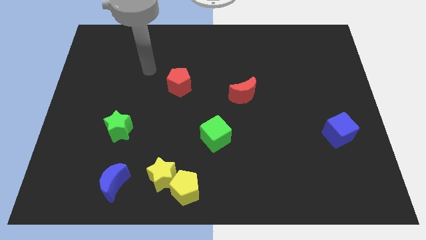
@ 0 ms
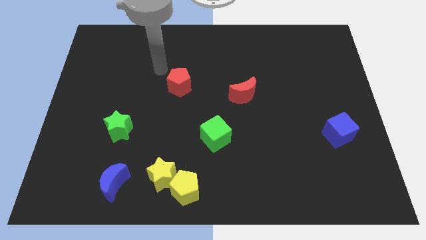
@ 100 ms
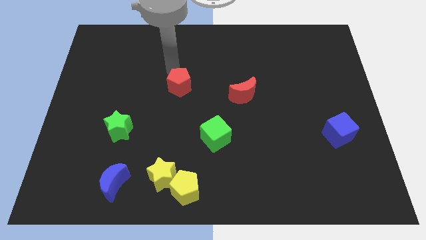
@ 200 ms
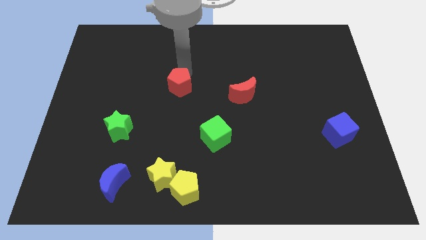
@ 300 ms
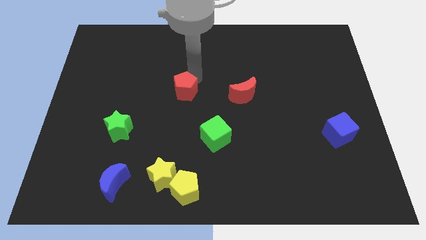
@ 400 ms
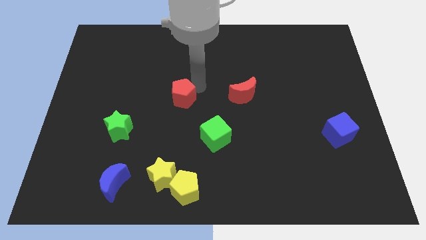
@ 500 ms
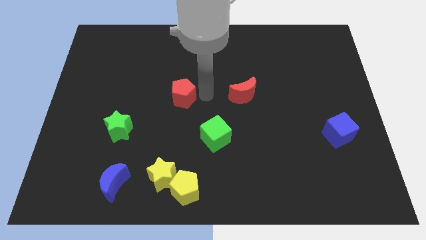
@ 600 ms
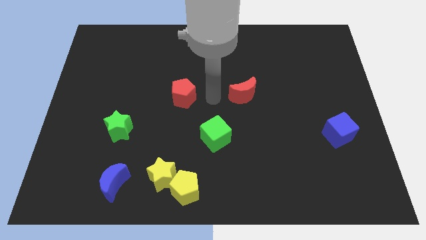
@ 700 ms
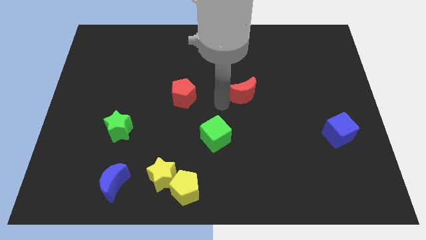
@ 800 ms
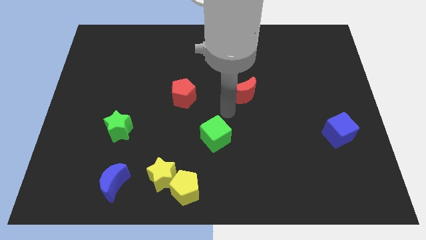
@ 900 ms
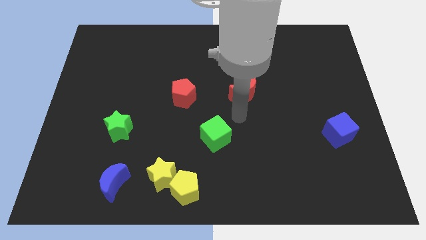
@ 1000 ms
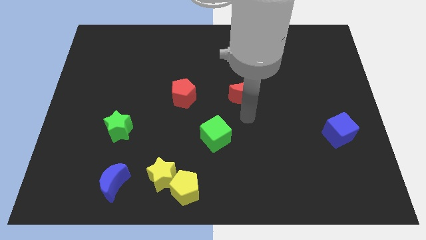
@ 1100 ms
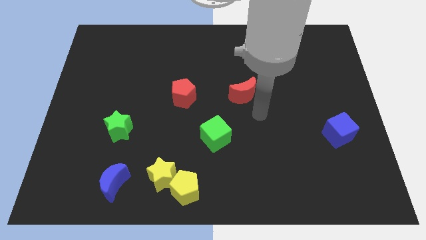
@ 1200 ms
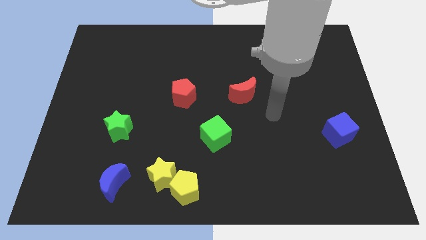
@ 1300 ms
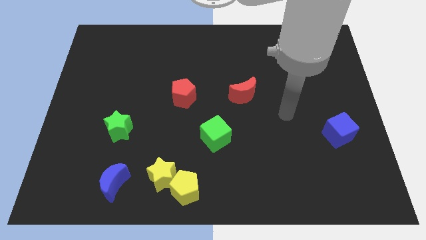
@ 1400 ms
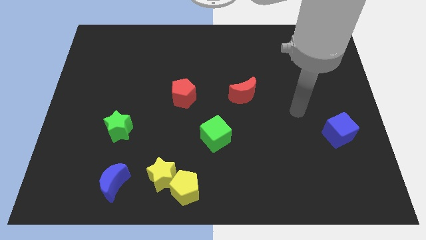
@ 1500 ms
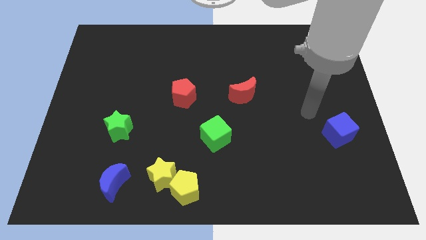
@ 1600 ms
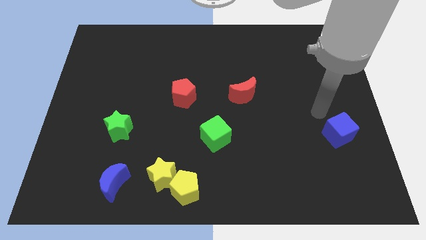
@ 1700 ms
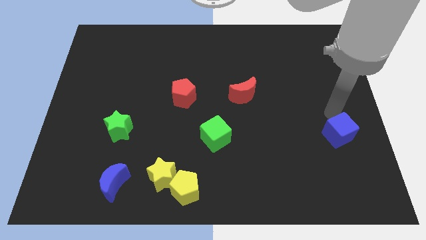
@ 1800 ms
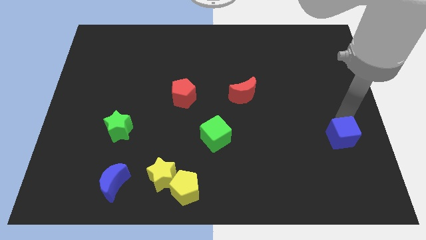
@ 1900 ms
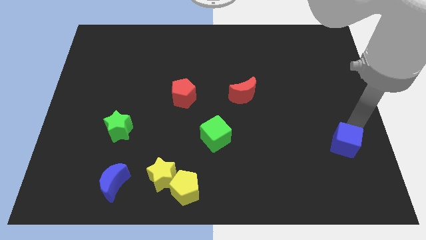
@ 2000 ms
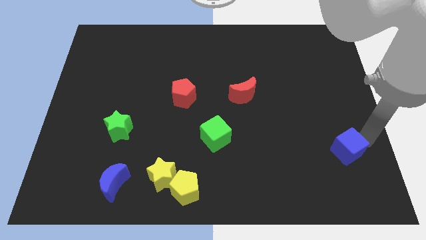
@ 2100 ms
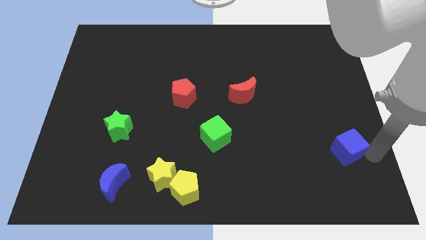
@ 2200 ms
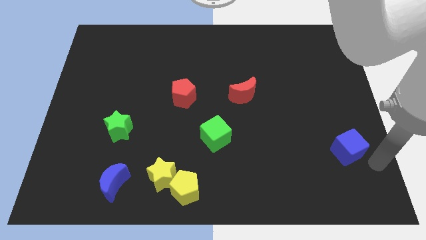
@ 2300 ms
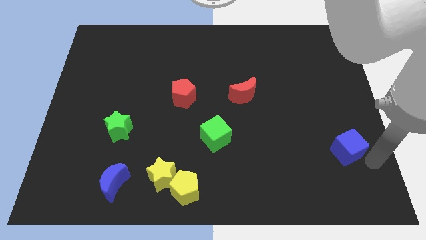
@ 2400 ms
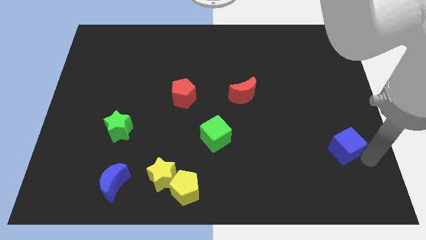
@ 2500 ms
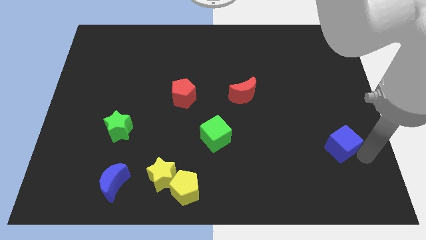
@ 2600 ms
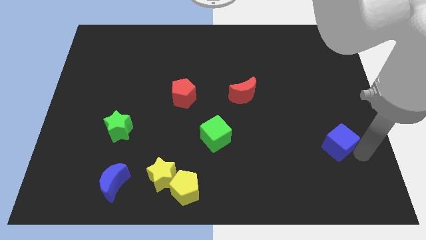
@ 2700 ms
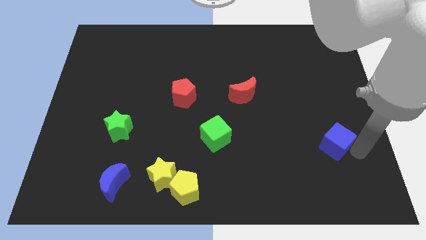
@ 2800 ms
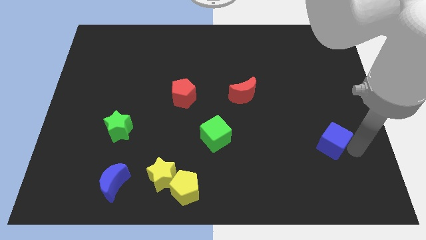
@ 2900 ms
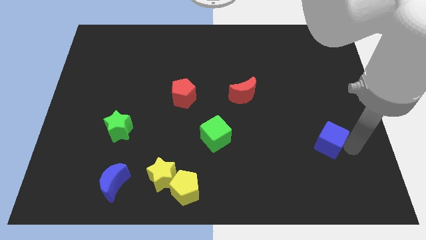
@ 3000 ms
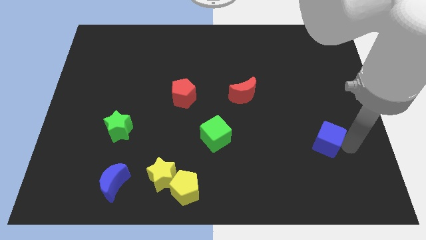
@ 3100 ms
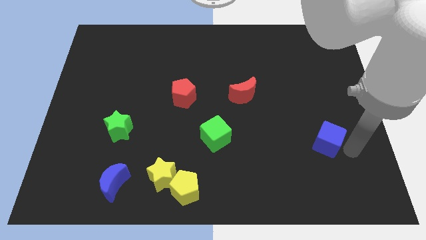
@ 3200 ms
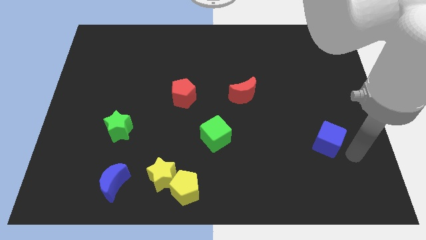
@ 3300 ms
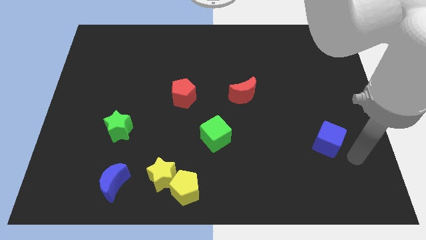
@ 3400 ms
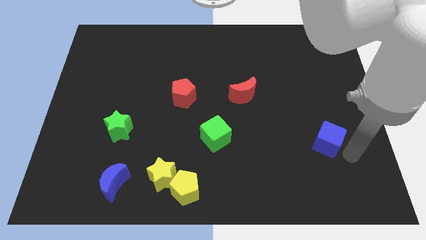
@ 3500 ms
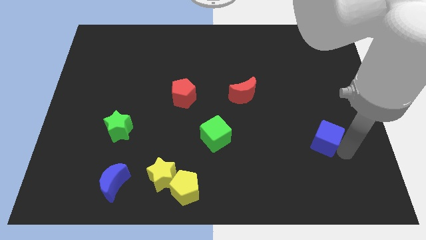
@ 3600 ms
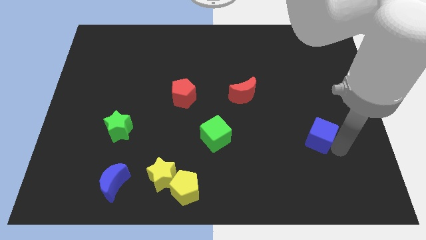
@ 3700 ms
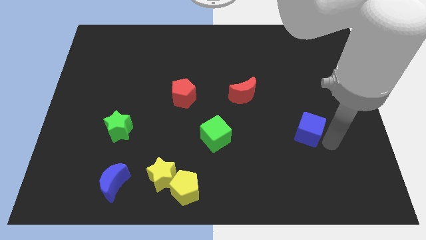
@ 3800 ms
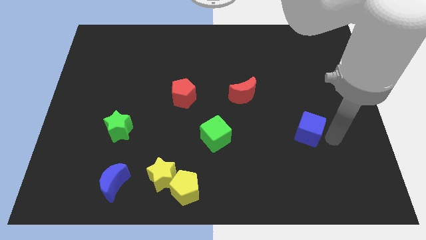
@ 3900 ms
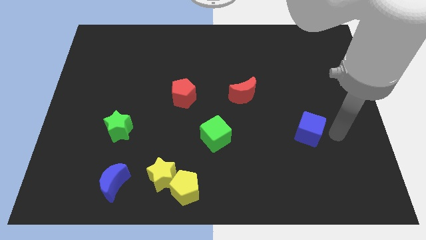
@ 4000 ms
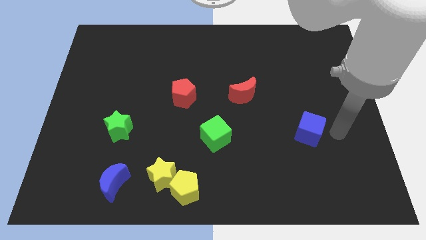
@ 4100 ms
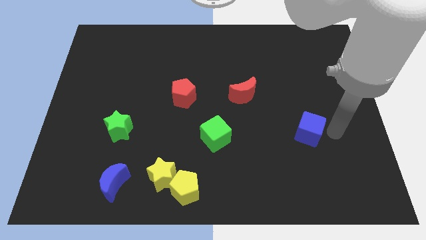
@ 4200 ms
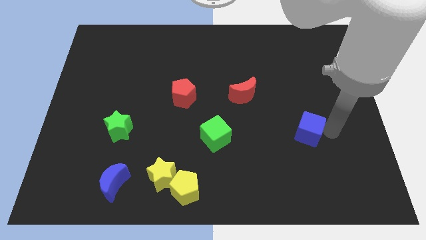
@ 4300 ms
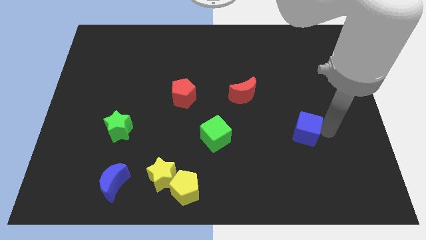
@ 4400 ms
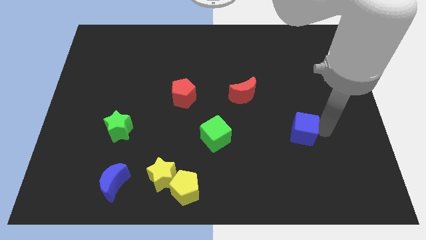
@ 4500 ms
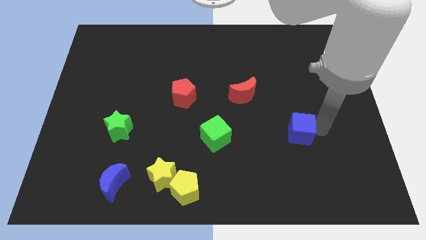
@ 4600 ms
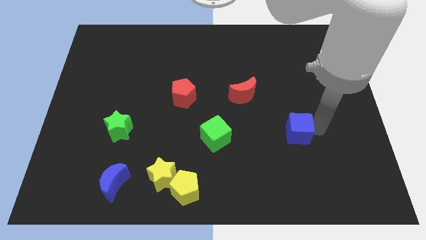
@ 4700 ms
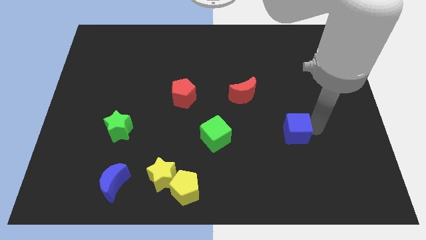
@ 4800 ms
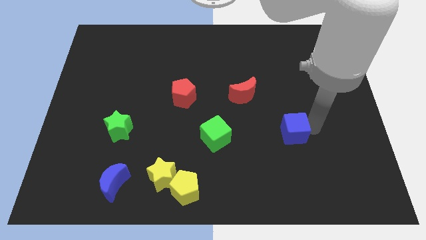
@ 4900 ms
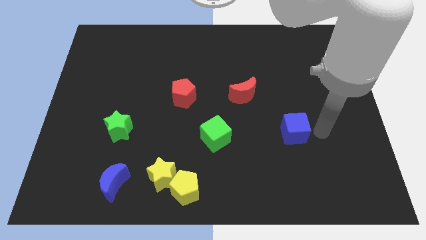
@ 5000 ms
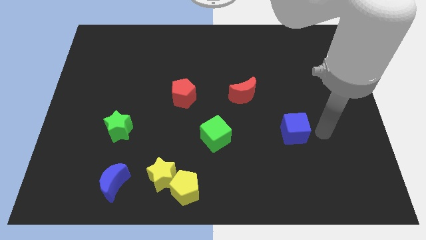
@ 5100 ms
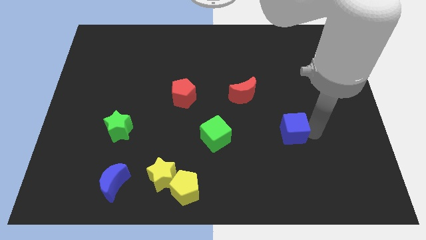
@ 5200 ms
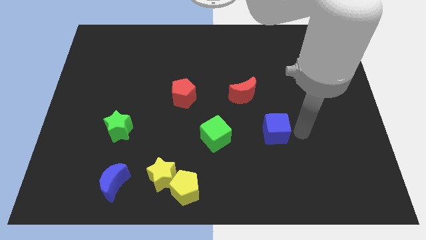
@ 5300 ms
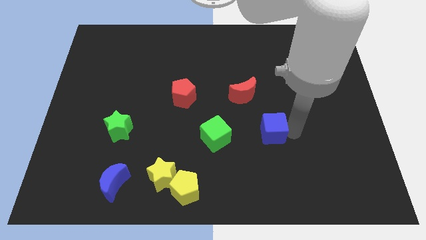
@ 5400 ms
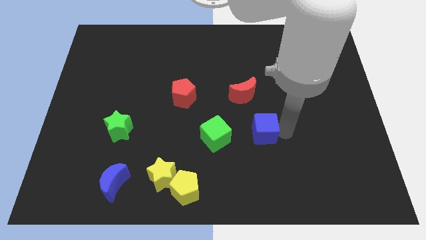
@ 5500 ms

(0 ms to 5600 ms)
slide the blue cube below the red moon

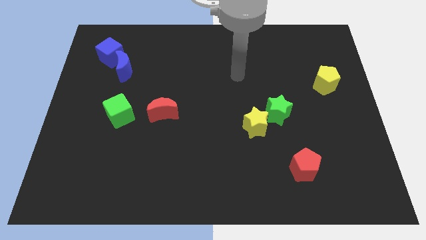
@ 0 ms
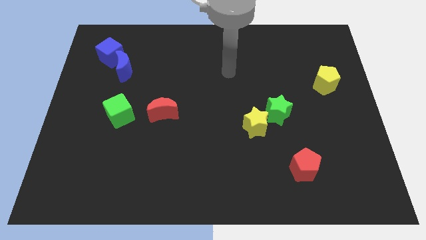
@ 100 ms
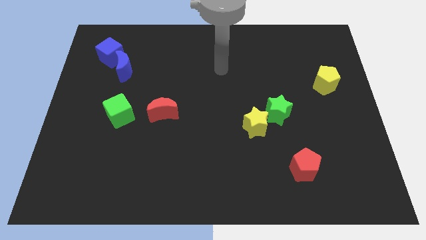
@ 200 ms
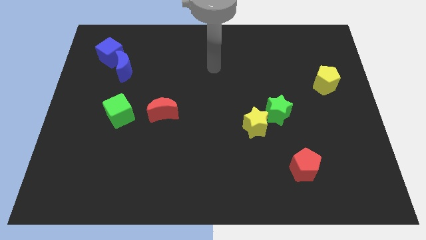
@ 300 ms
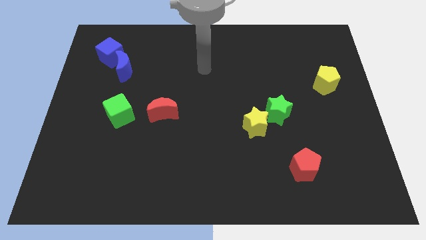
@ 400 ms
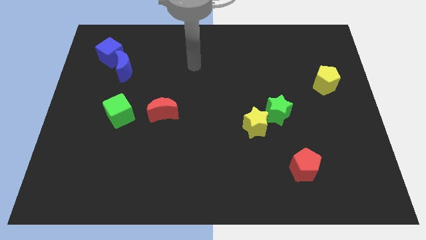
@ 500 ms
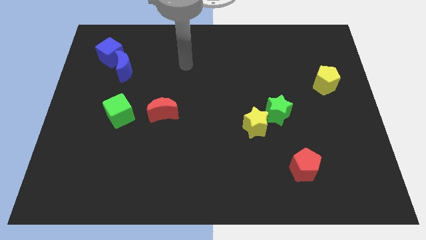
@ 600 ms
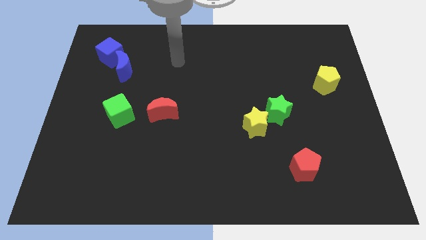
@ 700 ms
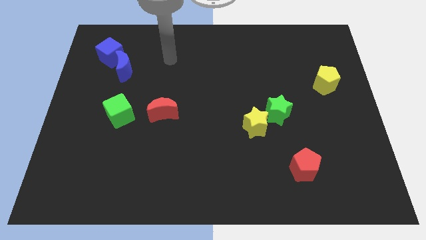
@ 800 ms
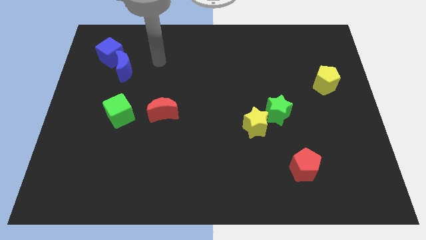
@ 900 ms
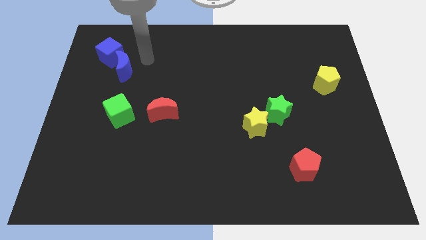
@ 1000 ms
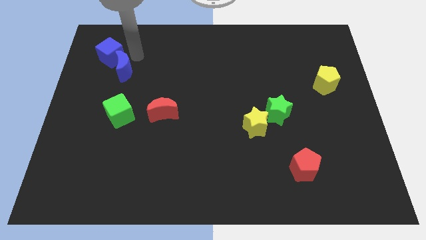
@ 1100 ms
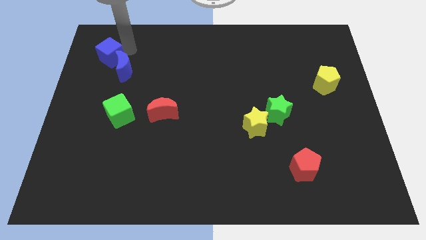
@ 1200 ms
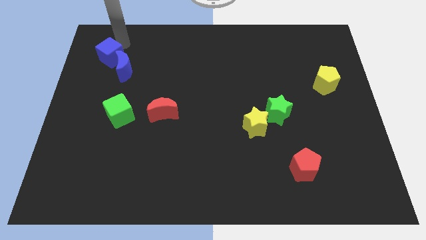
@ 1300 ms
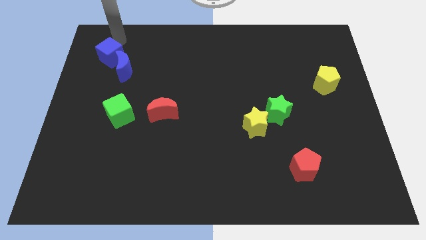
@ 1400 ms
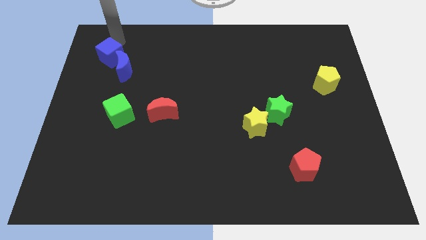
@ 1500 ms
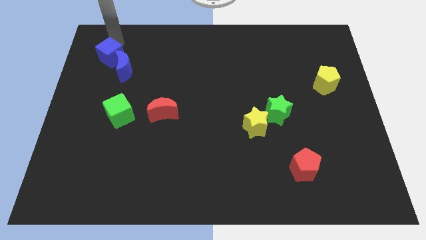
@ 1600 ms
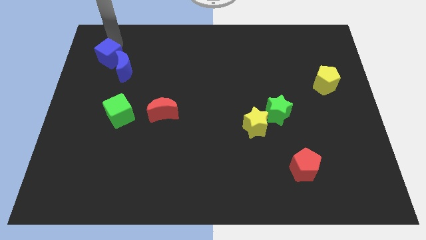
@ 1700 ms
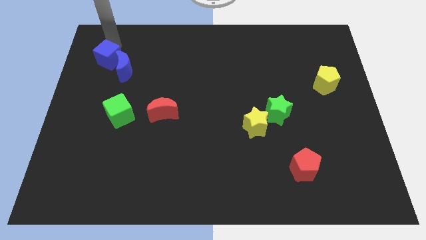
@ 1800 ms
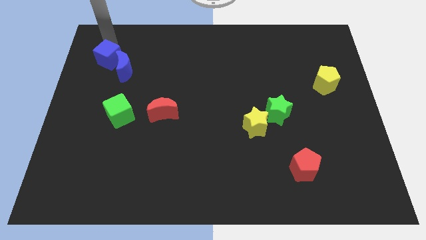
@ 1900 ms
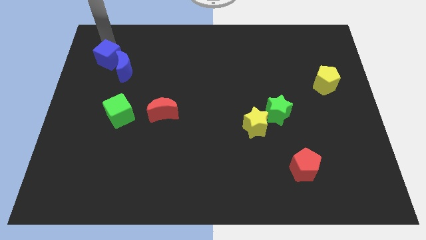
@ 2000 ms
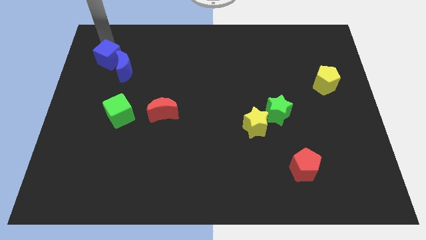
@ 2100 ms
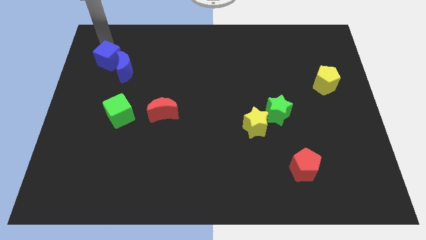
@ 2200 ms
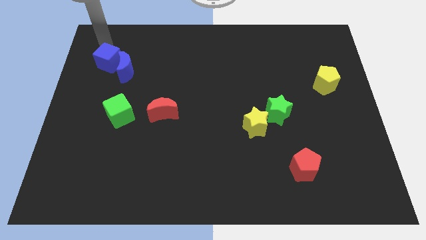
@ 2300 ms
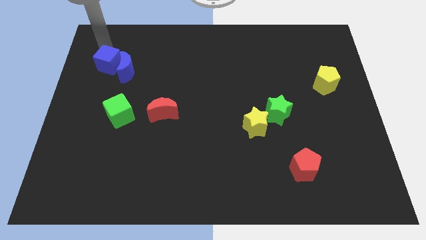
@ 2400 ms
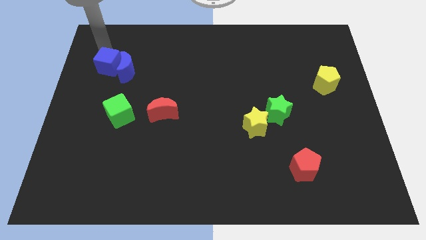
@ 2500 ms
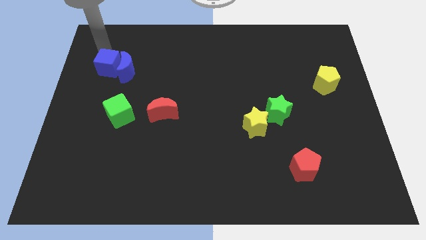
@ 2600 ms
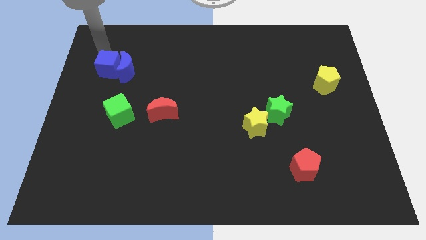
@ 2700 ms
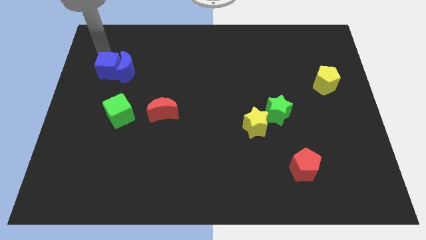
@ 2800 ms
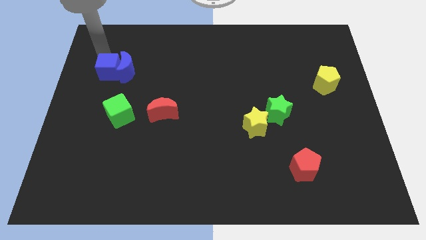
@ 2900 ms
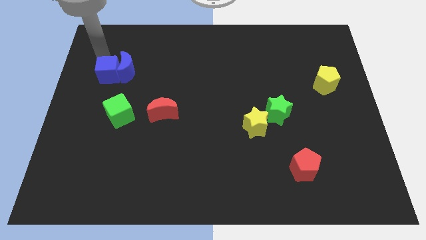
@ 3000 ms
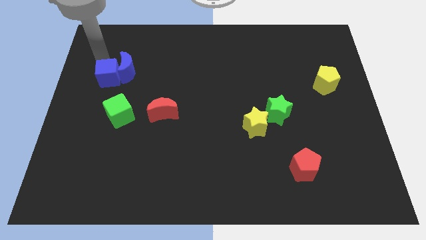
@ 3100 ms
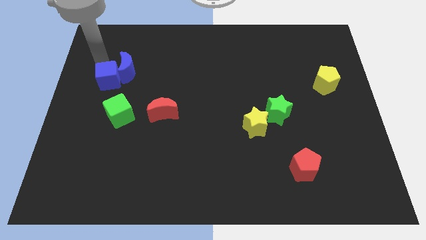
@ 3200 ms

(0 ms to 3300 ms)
move the blue cube to the bottom side of the blue moon
